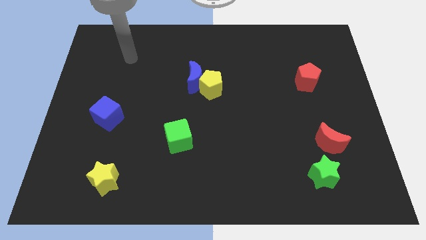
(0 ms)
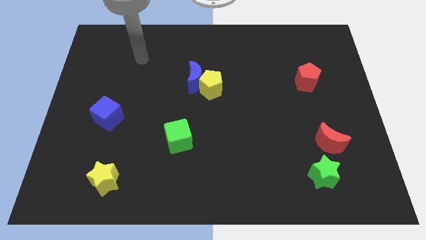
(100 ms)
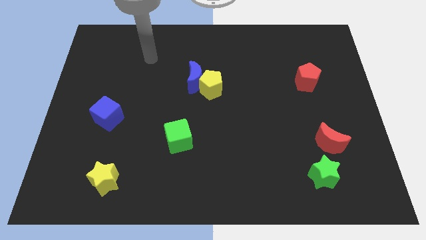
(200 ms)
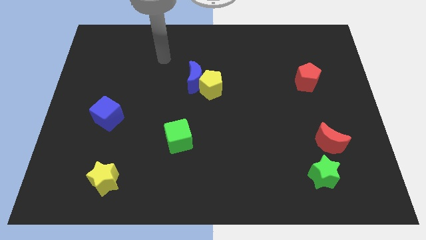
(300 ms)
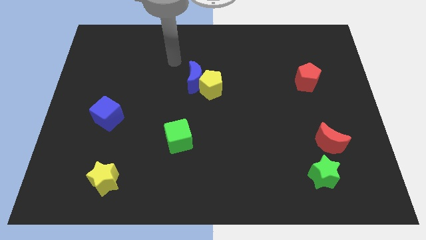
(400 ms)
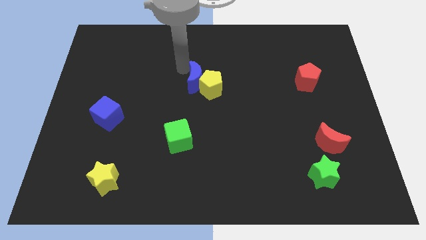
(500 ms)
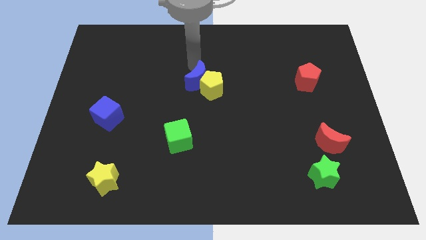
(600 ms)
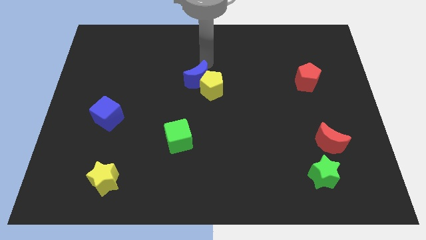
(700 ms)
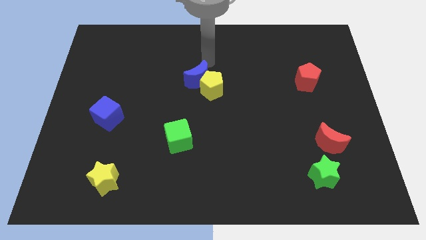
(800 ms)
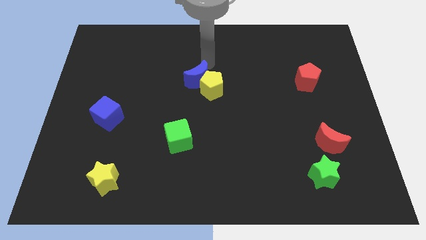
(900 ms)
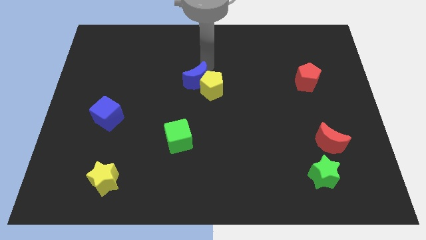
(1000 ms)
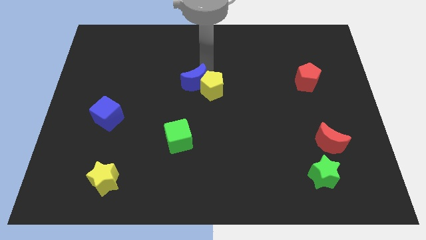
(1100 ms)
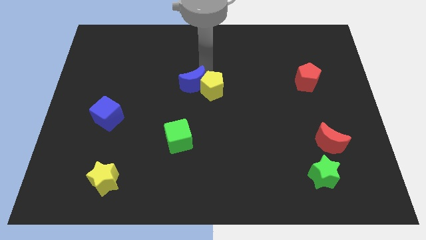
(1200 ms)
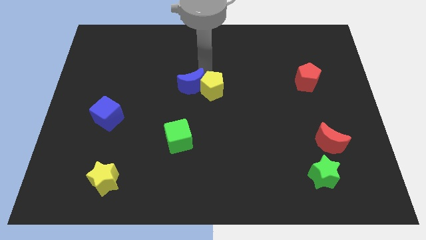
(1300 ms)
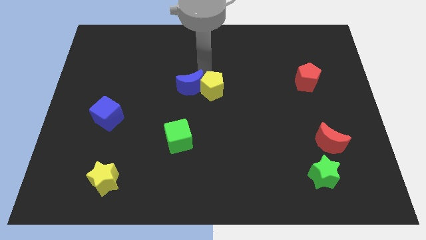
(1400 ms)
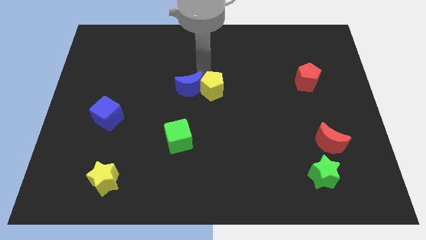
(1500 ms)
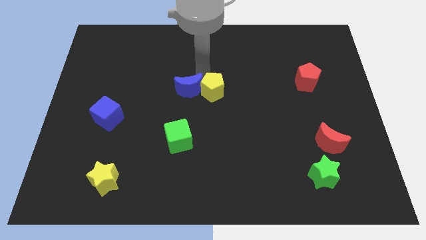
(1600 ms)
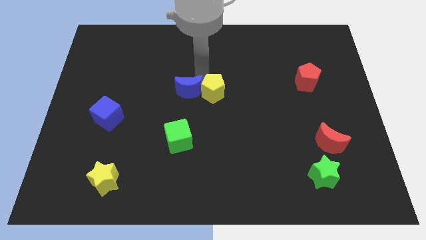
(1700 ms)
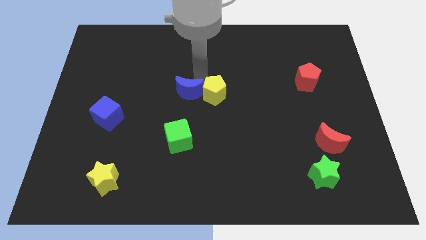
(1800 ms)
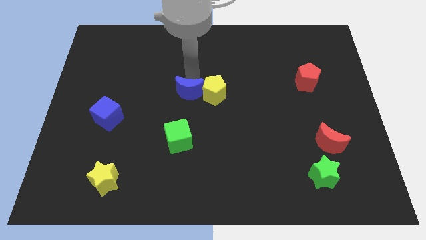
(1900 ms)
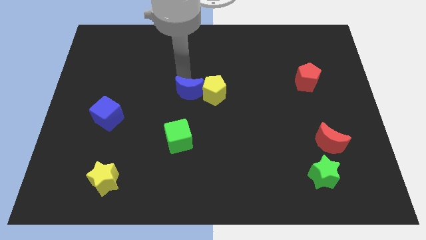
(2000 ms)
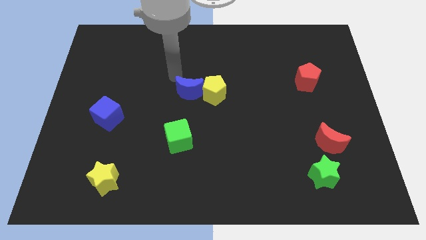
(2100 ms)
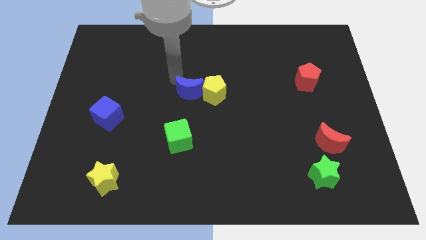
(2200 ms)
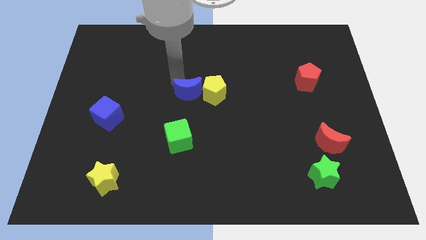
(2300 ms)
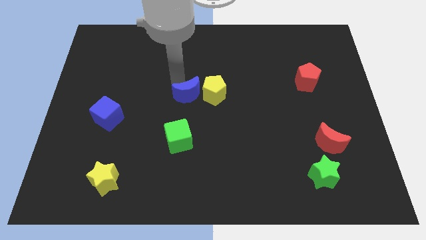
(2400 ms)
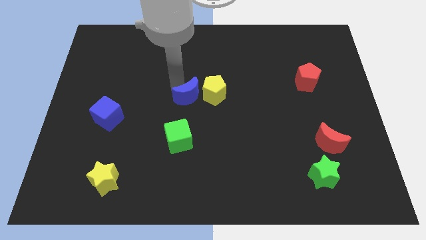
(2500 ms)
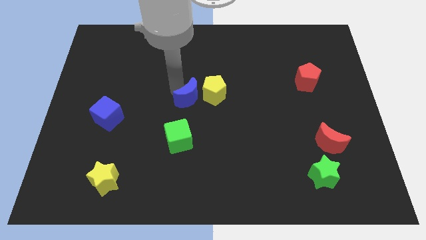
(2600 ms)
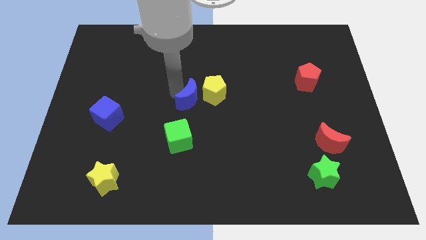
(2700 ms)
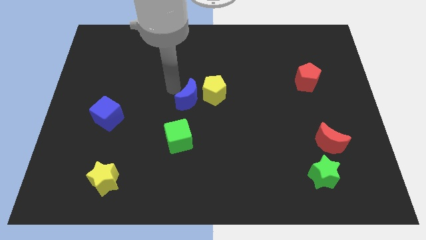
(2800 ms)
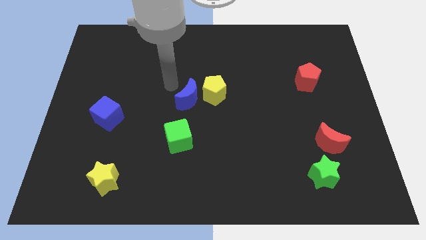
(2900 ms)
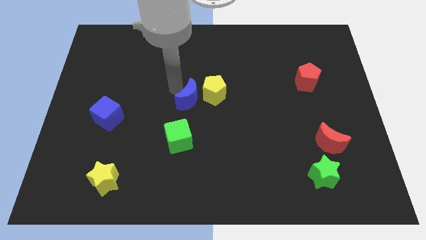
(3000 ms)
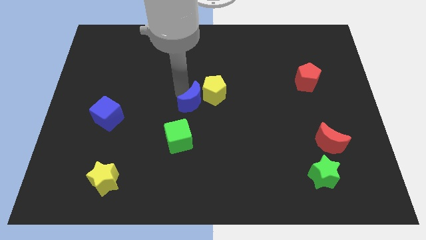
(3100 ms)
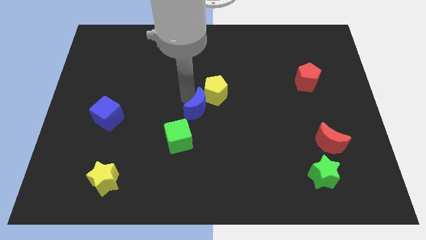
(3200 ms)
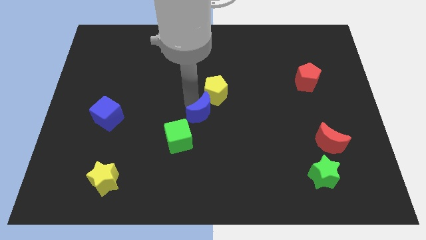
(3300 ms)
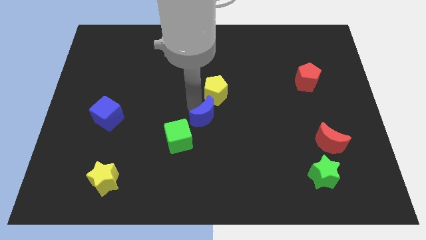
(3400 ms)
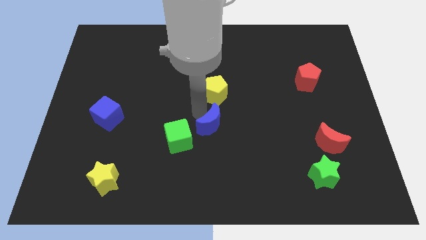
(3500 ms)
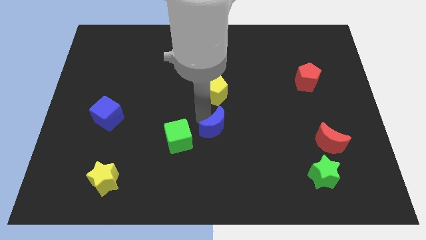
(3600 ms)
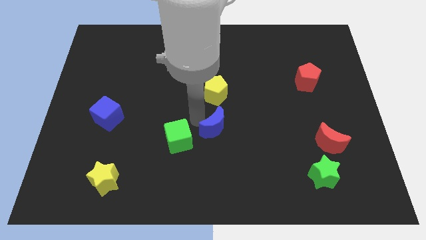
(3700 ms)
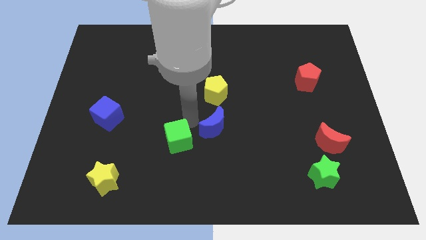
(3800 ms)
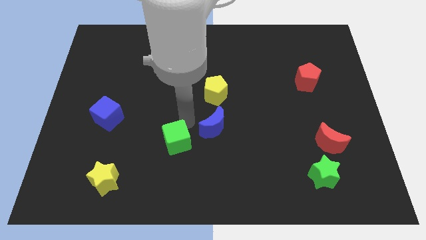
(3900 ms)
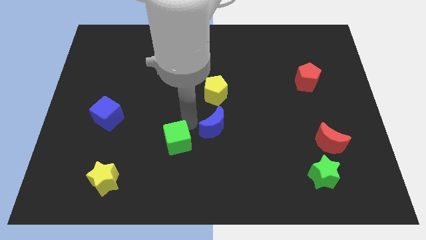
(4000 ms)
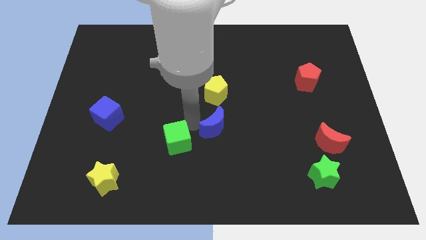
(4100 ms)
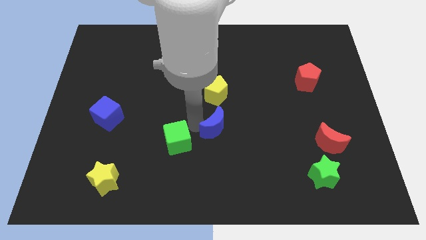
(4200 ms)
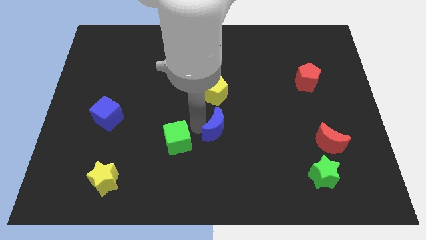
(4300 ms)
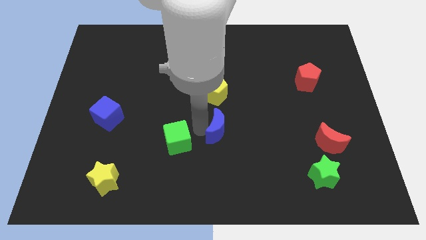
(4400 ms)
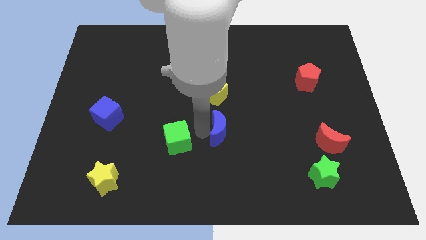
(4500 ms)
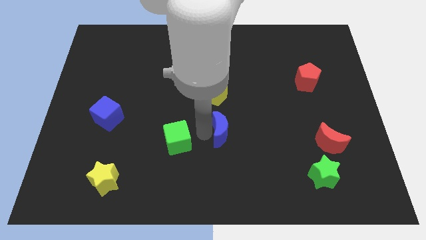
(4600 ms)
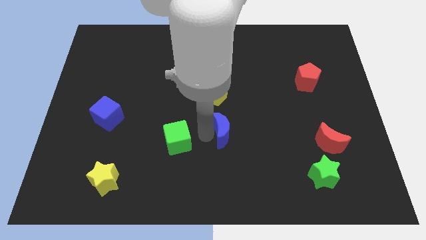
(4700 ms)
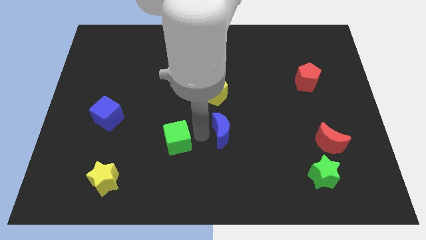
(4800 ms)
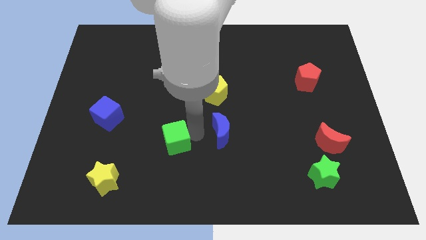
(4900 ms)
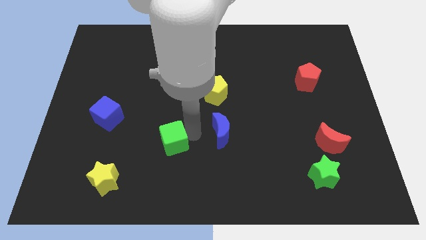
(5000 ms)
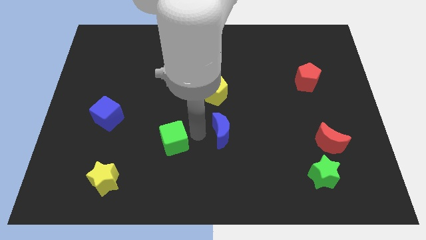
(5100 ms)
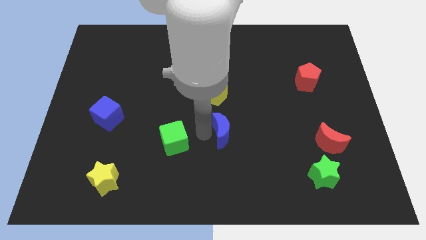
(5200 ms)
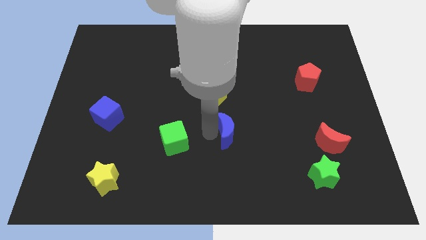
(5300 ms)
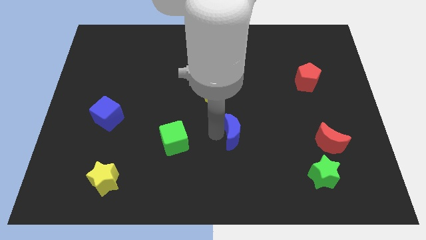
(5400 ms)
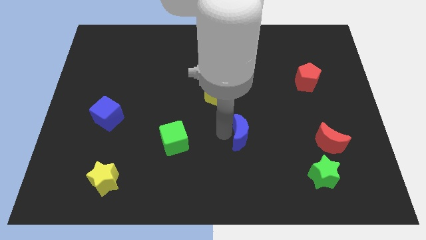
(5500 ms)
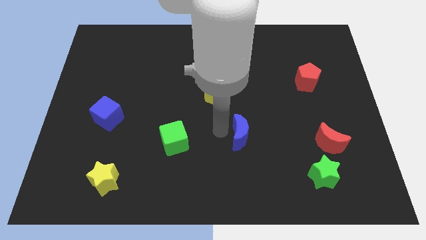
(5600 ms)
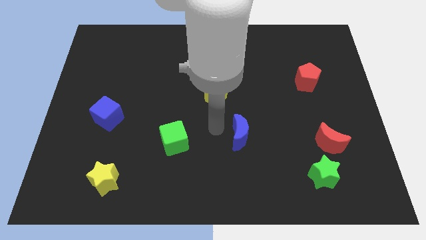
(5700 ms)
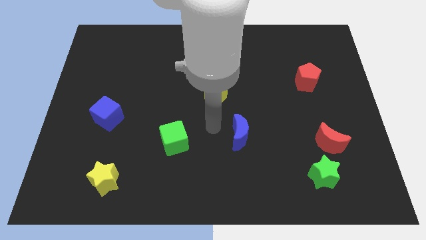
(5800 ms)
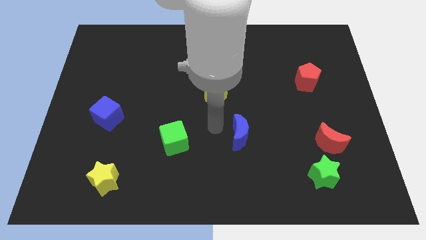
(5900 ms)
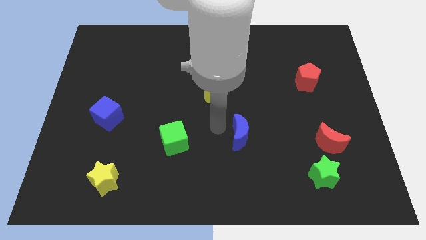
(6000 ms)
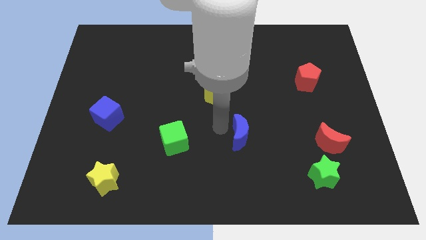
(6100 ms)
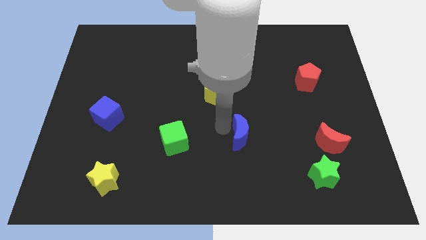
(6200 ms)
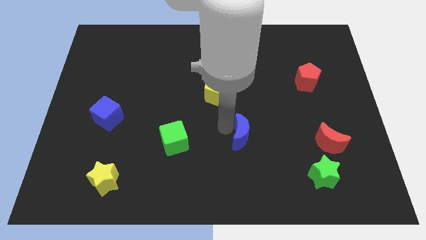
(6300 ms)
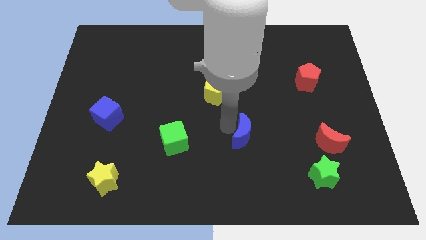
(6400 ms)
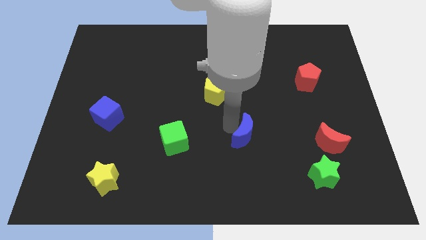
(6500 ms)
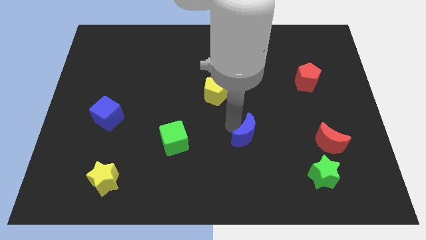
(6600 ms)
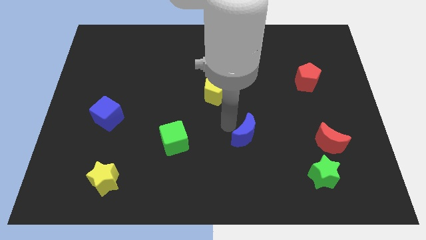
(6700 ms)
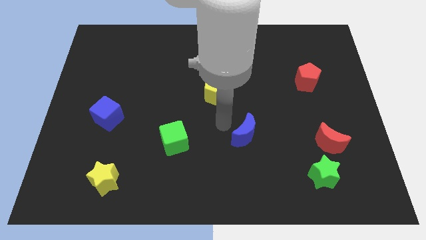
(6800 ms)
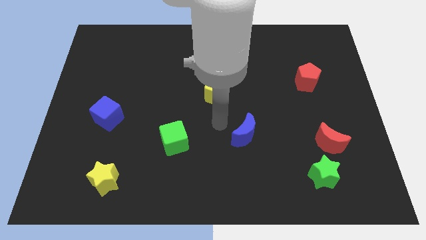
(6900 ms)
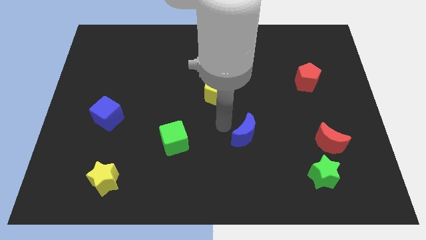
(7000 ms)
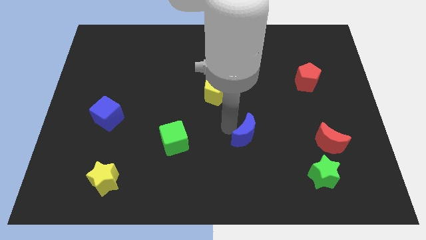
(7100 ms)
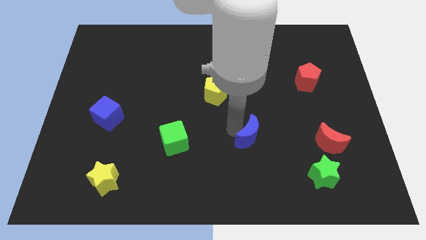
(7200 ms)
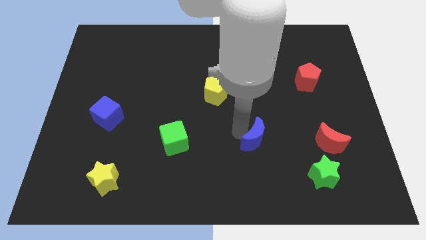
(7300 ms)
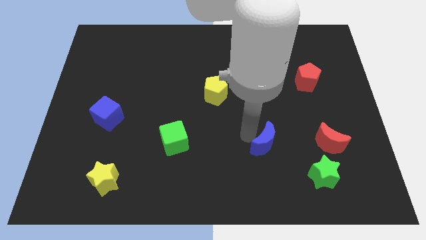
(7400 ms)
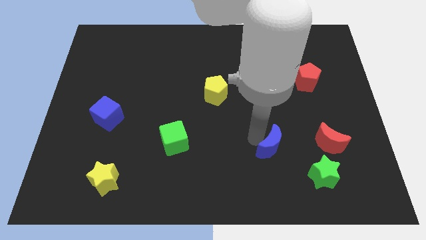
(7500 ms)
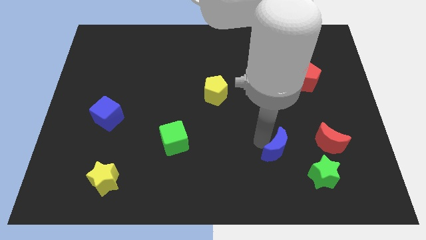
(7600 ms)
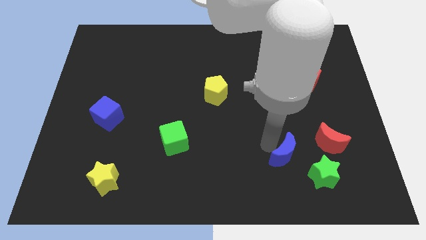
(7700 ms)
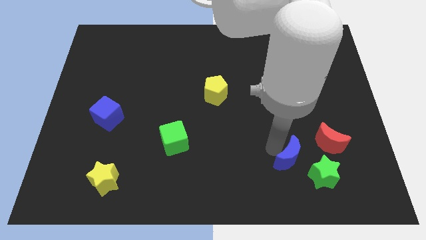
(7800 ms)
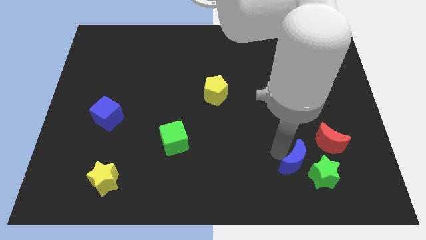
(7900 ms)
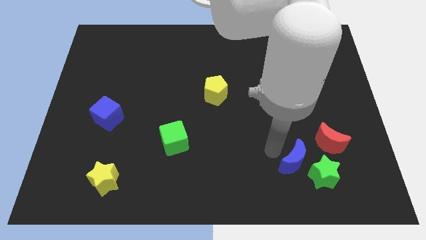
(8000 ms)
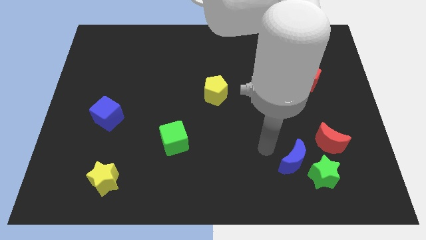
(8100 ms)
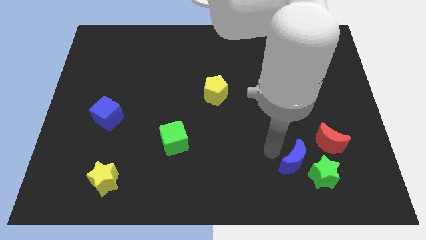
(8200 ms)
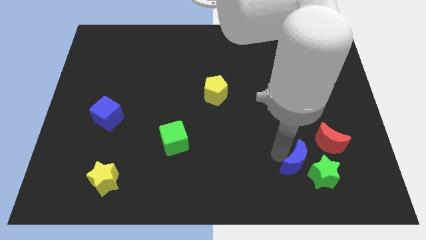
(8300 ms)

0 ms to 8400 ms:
slide the blue moon to the green star
